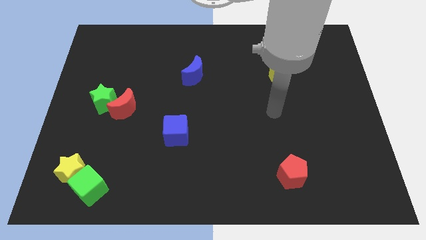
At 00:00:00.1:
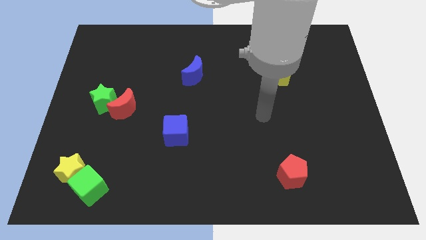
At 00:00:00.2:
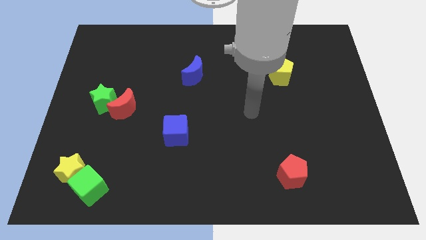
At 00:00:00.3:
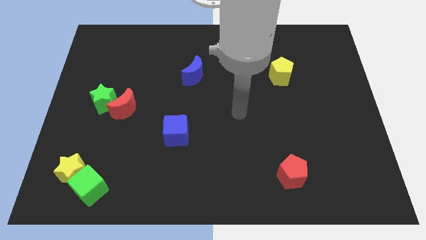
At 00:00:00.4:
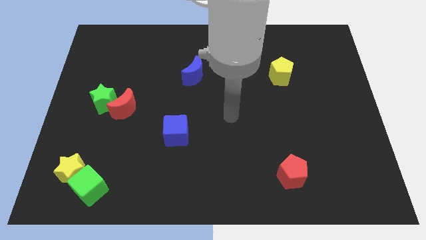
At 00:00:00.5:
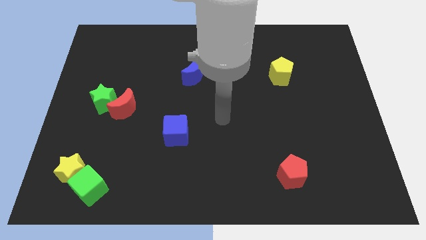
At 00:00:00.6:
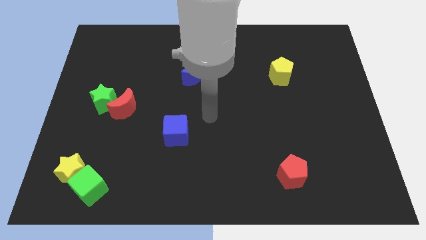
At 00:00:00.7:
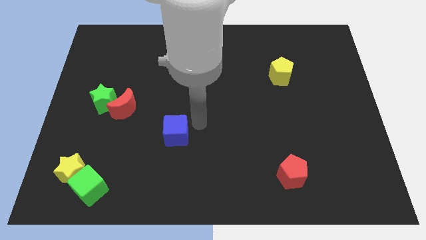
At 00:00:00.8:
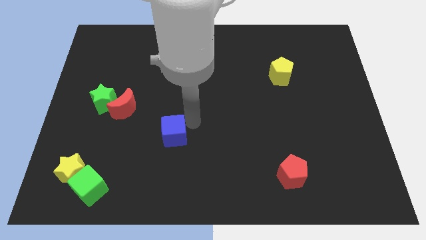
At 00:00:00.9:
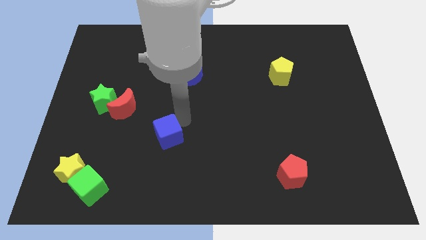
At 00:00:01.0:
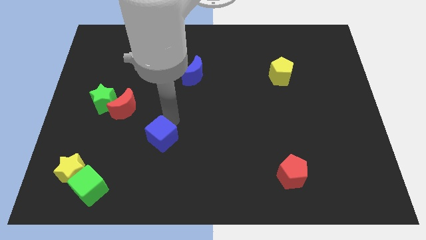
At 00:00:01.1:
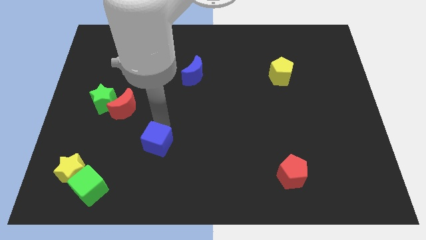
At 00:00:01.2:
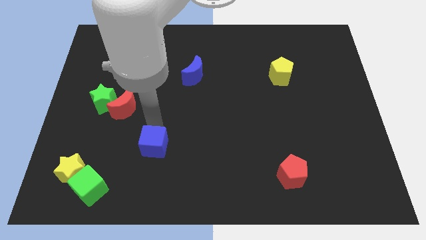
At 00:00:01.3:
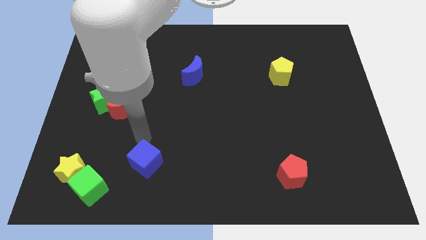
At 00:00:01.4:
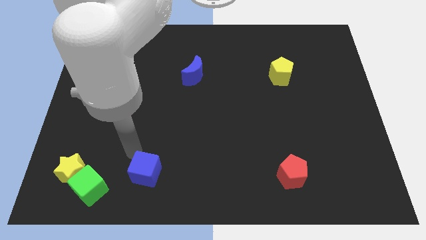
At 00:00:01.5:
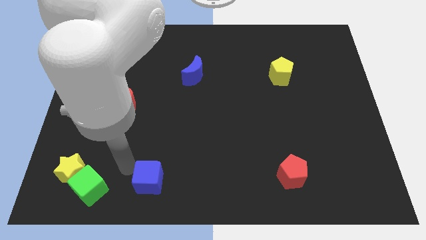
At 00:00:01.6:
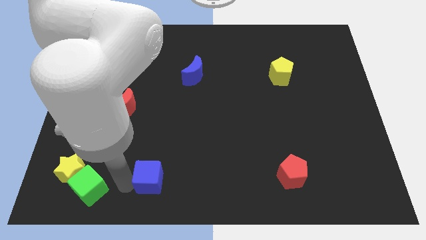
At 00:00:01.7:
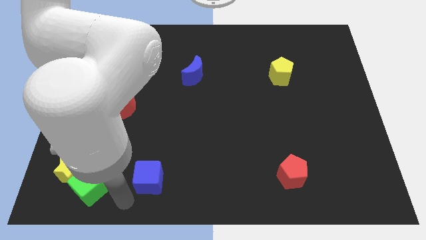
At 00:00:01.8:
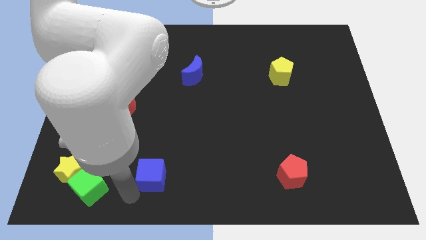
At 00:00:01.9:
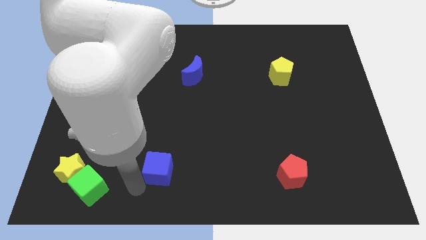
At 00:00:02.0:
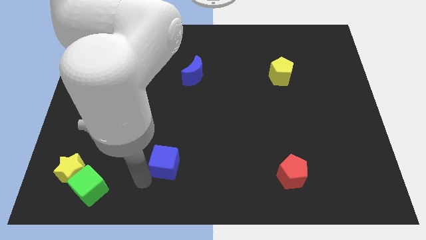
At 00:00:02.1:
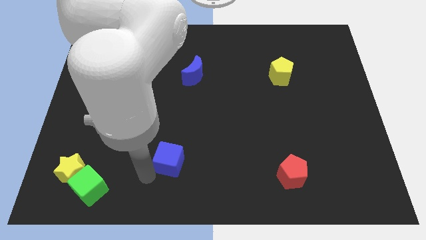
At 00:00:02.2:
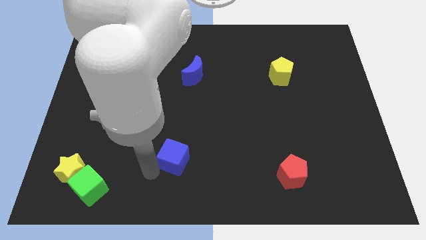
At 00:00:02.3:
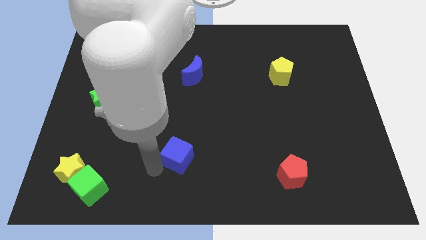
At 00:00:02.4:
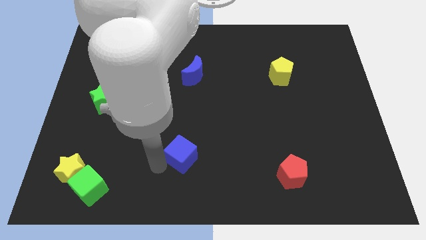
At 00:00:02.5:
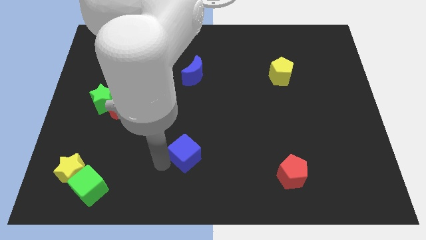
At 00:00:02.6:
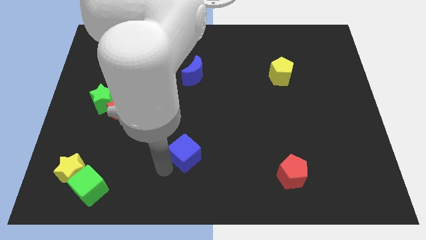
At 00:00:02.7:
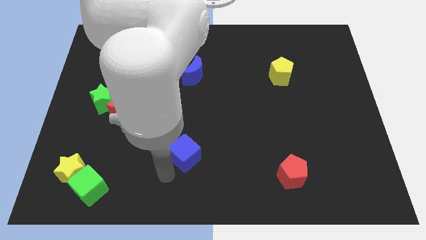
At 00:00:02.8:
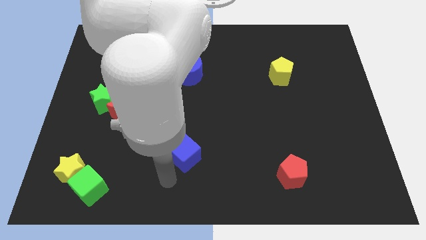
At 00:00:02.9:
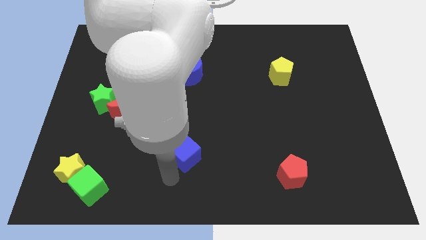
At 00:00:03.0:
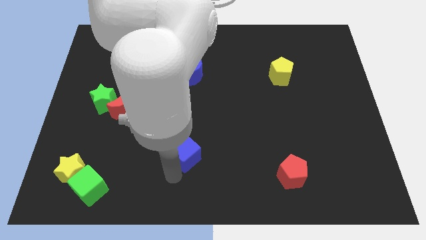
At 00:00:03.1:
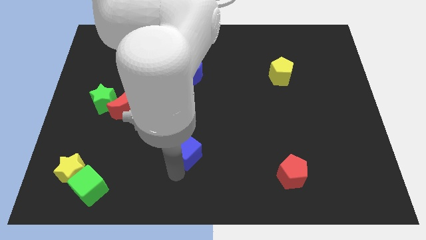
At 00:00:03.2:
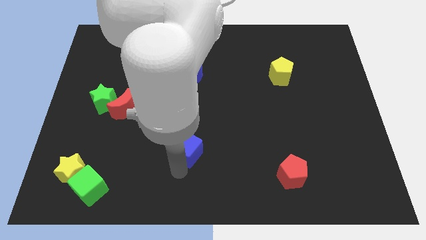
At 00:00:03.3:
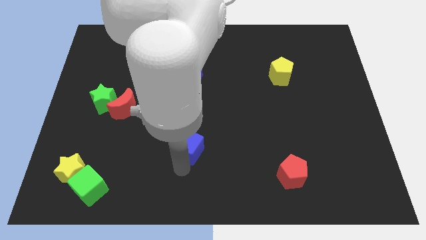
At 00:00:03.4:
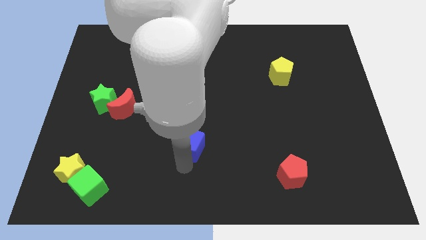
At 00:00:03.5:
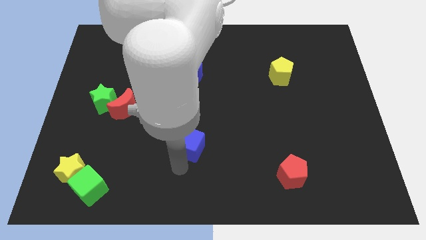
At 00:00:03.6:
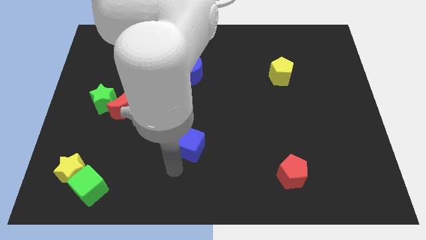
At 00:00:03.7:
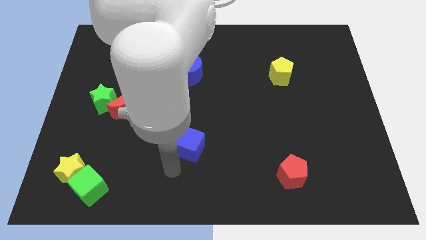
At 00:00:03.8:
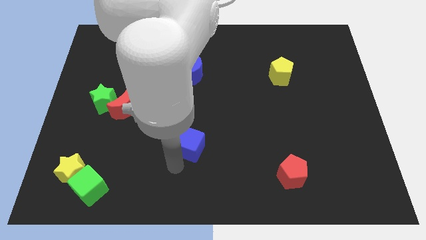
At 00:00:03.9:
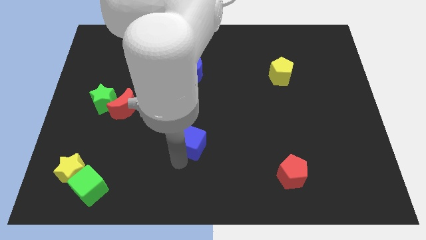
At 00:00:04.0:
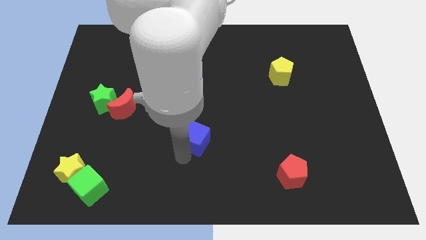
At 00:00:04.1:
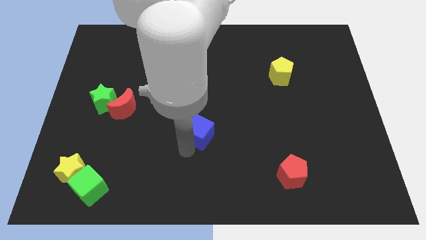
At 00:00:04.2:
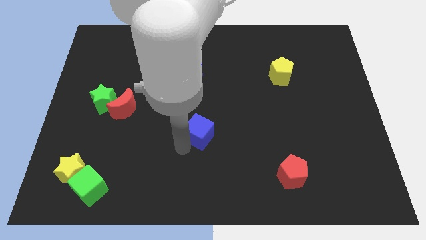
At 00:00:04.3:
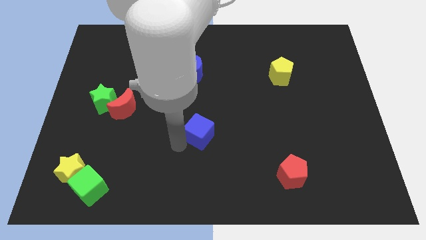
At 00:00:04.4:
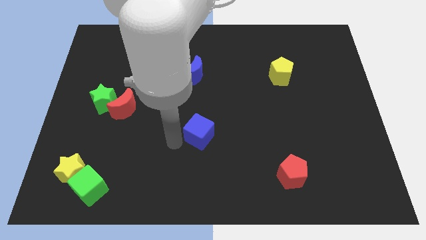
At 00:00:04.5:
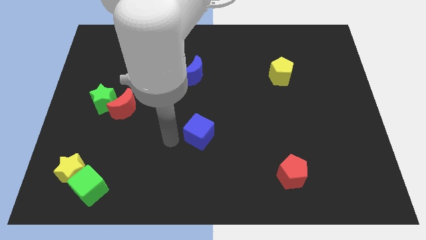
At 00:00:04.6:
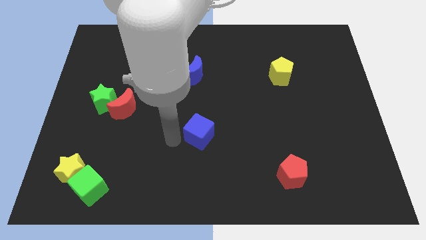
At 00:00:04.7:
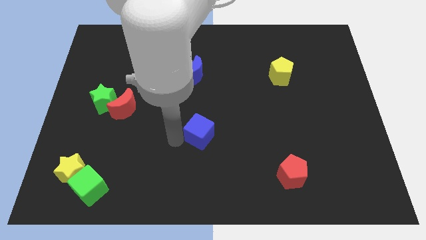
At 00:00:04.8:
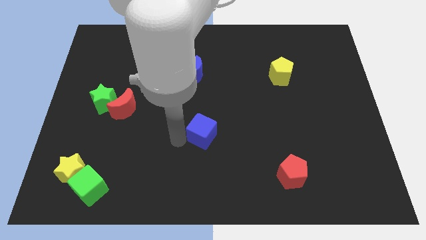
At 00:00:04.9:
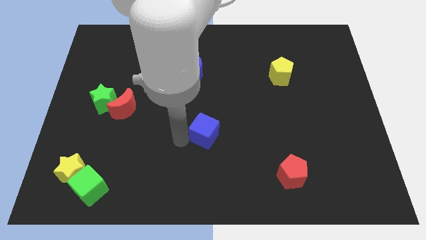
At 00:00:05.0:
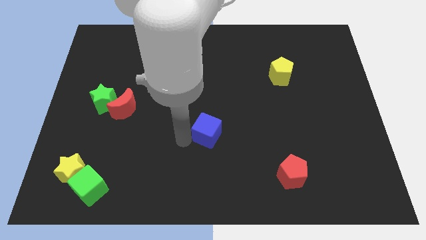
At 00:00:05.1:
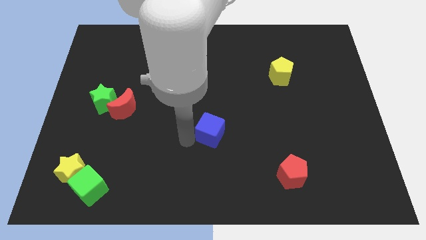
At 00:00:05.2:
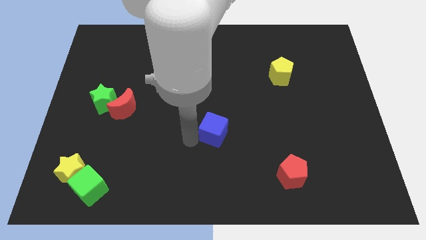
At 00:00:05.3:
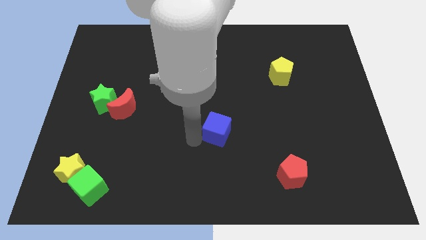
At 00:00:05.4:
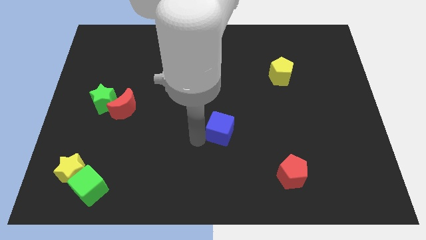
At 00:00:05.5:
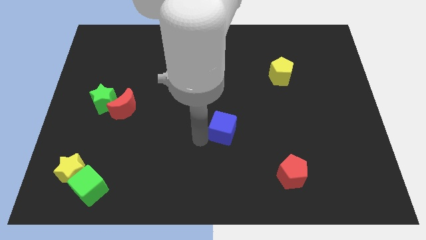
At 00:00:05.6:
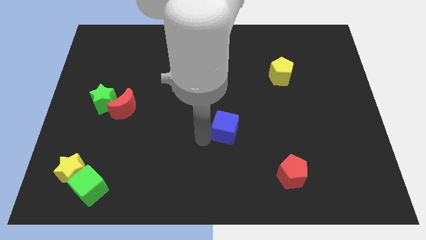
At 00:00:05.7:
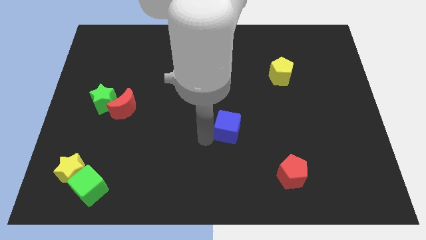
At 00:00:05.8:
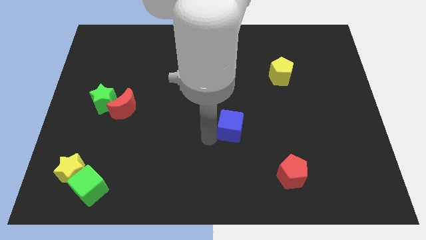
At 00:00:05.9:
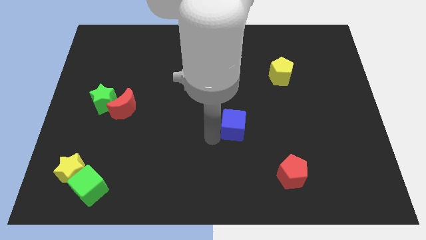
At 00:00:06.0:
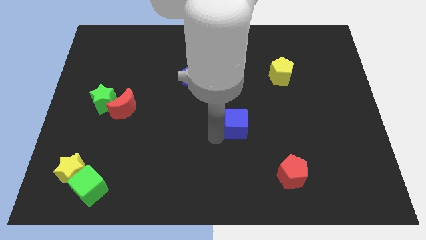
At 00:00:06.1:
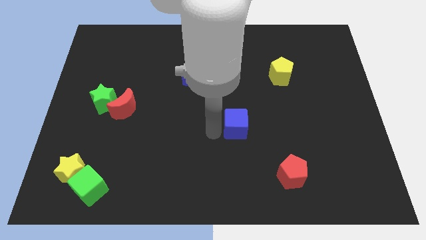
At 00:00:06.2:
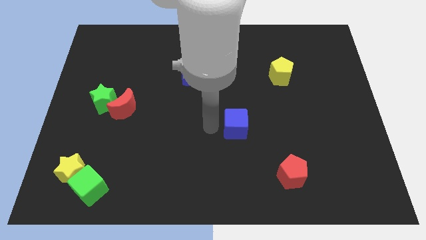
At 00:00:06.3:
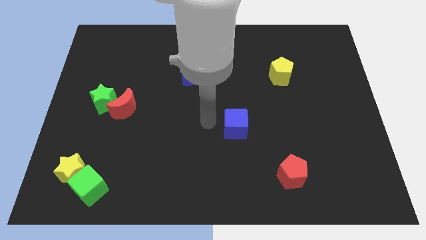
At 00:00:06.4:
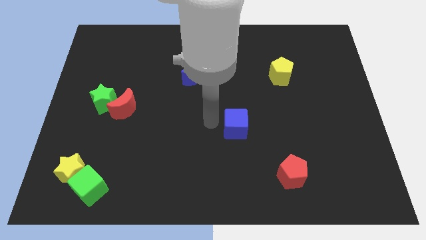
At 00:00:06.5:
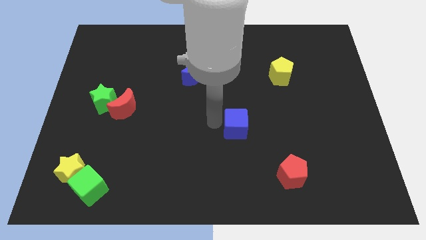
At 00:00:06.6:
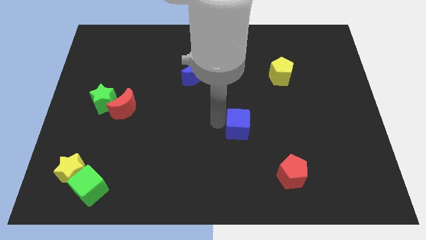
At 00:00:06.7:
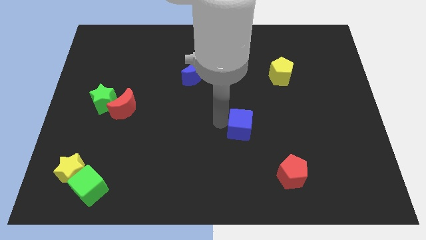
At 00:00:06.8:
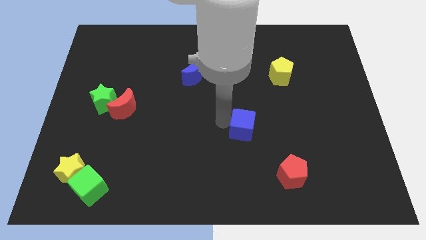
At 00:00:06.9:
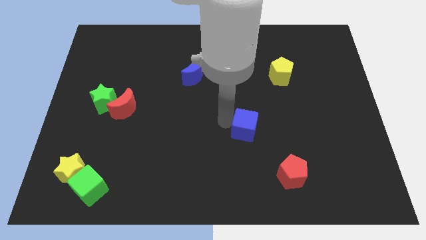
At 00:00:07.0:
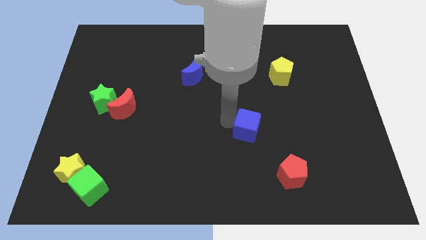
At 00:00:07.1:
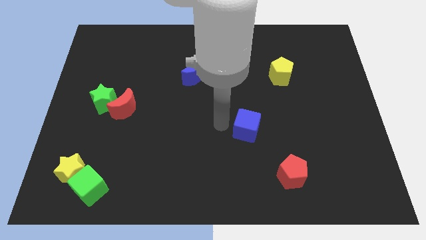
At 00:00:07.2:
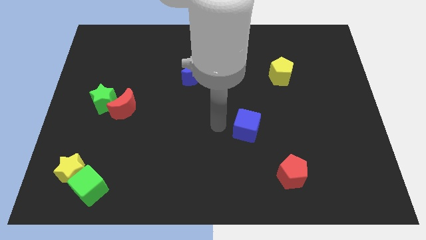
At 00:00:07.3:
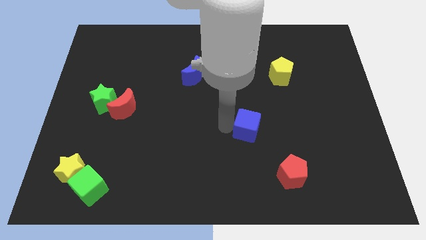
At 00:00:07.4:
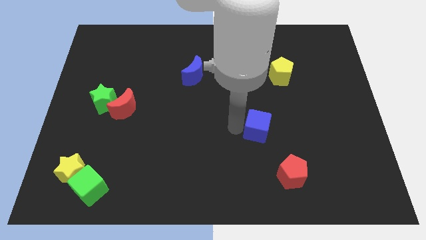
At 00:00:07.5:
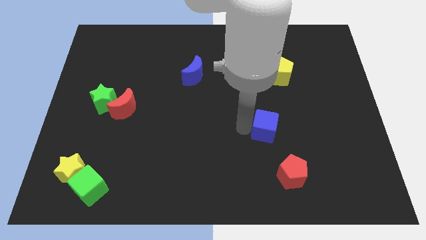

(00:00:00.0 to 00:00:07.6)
put the blue cube to the top side of the red pentagon

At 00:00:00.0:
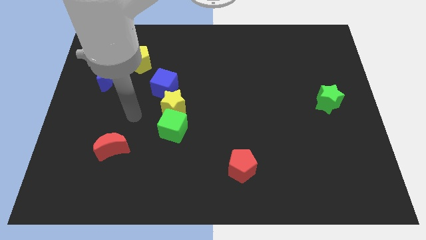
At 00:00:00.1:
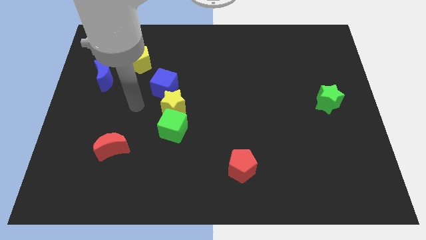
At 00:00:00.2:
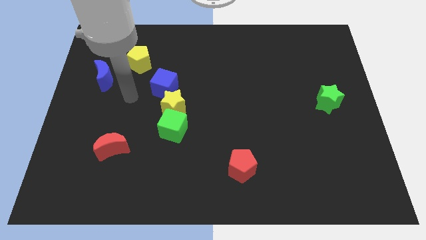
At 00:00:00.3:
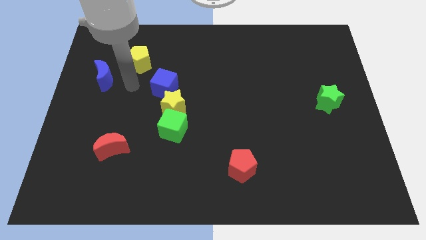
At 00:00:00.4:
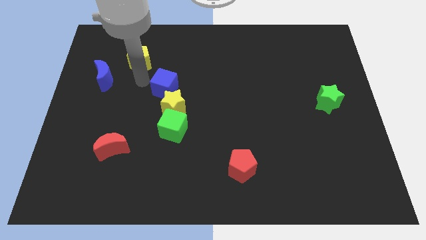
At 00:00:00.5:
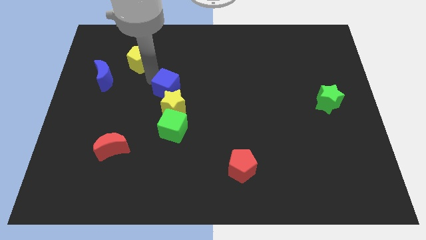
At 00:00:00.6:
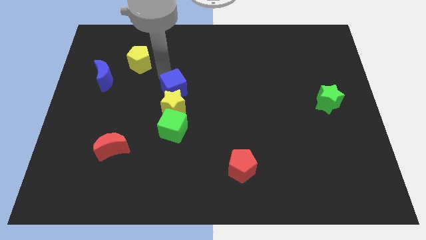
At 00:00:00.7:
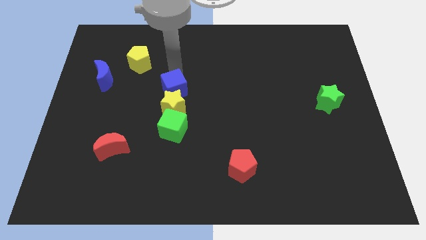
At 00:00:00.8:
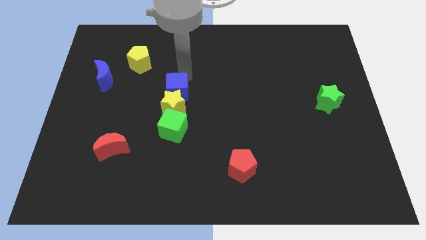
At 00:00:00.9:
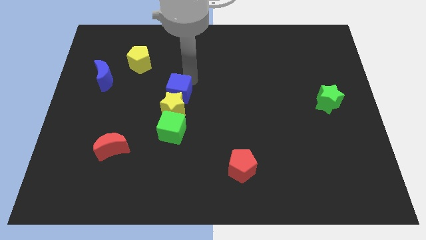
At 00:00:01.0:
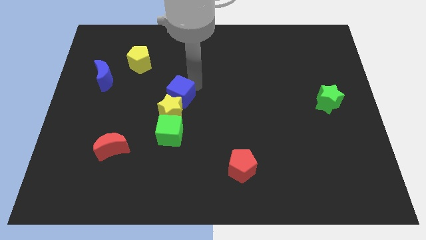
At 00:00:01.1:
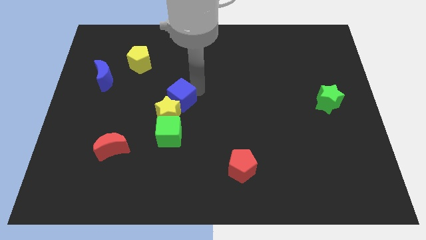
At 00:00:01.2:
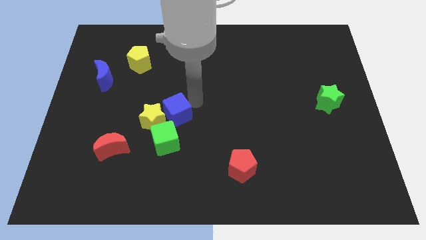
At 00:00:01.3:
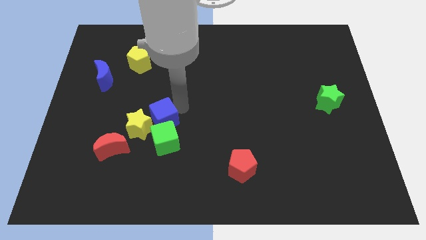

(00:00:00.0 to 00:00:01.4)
put the yellow star to the left of the green cube
